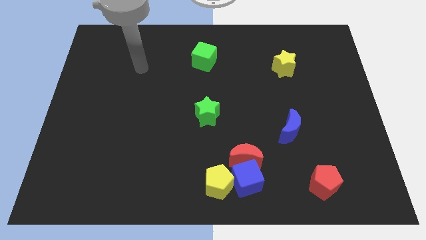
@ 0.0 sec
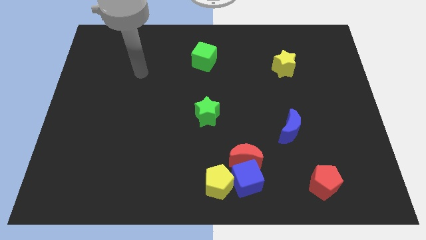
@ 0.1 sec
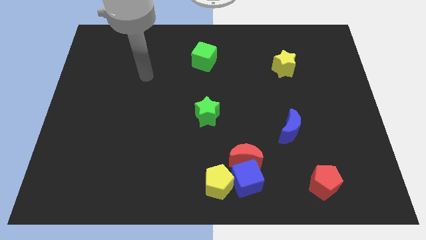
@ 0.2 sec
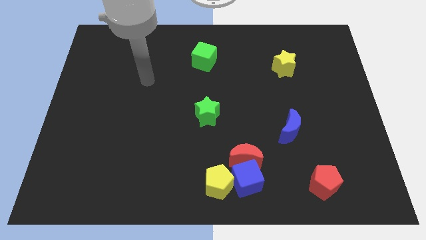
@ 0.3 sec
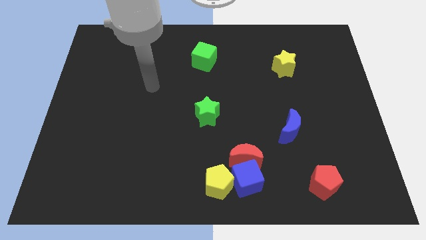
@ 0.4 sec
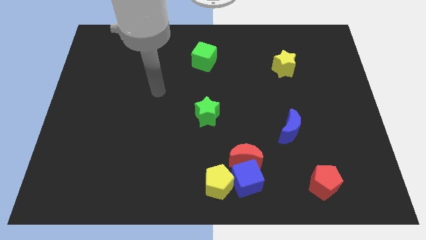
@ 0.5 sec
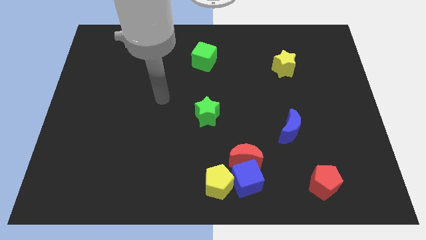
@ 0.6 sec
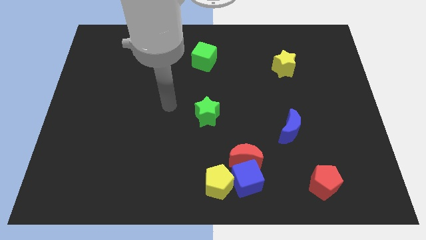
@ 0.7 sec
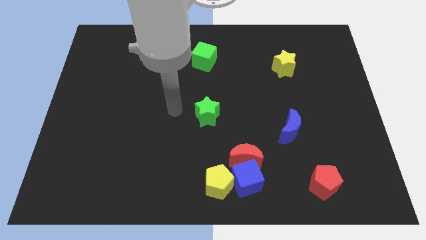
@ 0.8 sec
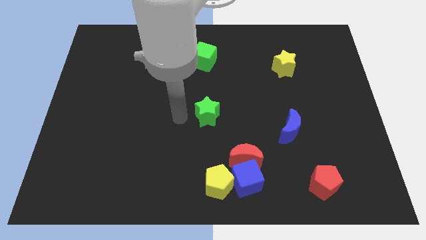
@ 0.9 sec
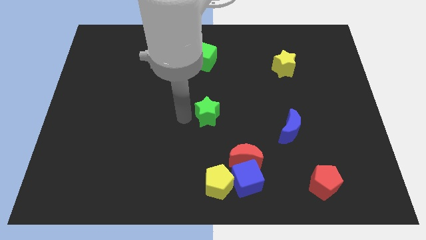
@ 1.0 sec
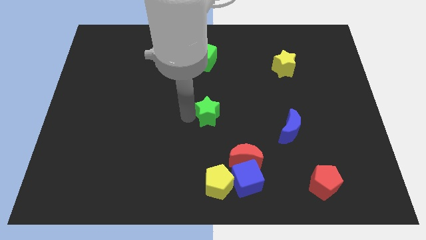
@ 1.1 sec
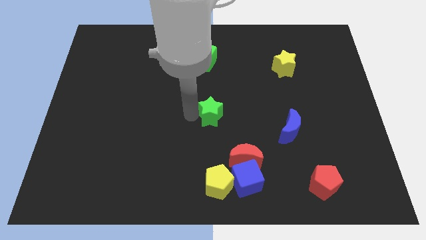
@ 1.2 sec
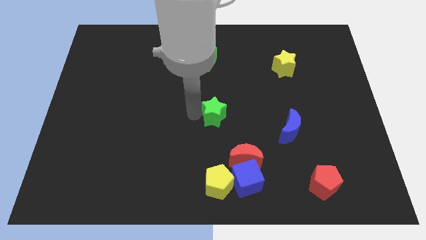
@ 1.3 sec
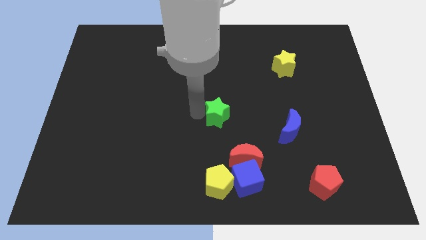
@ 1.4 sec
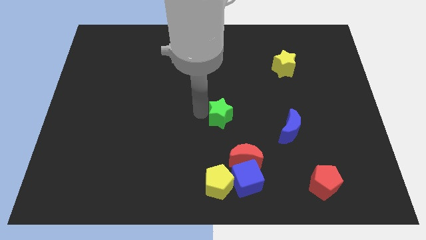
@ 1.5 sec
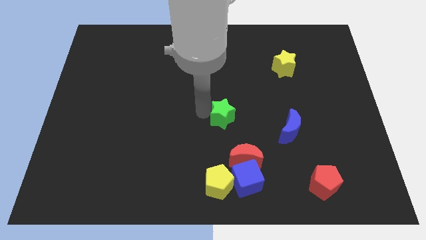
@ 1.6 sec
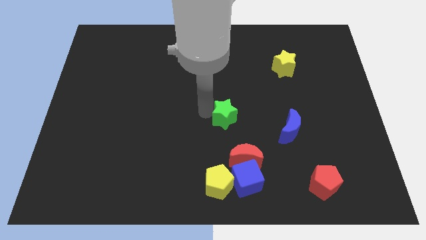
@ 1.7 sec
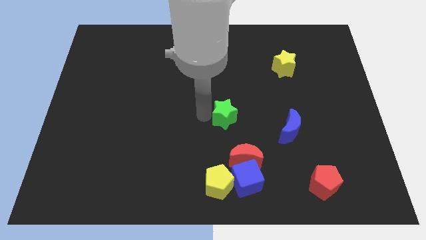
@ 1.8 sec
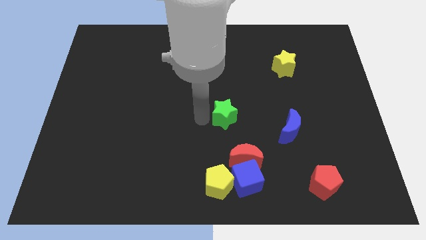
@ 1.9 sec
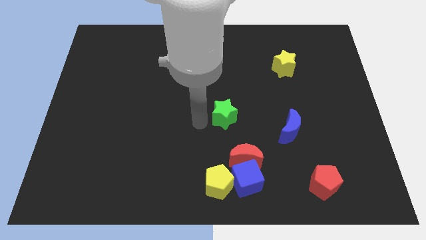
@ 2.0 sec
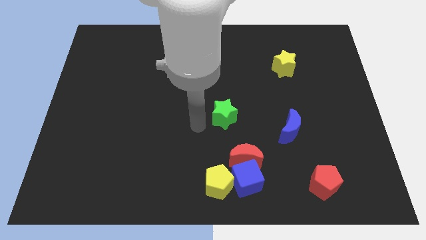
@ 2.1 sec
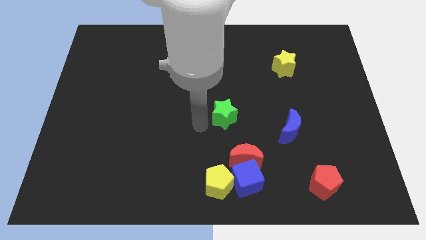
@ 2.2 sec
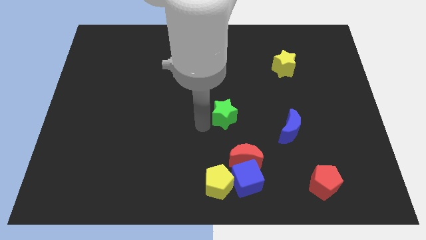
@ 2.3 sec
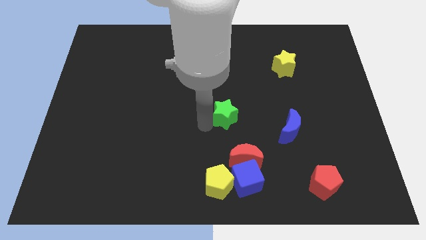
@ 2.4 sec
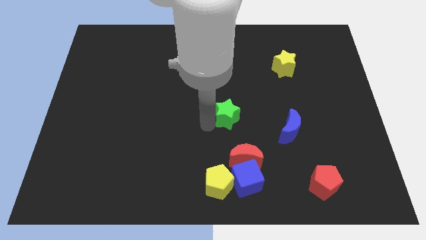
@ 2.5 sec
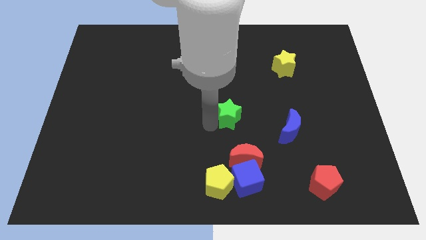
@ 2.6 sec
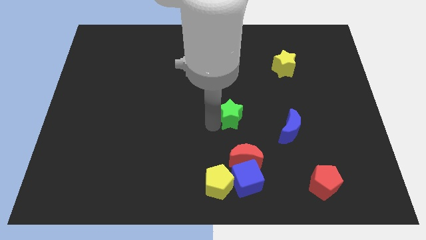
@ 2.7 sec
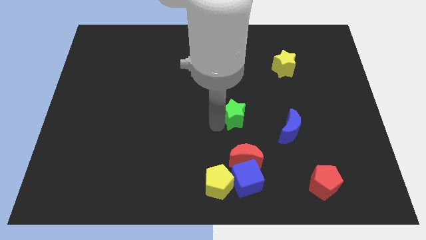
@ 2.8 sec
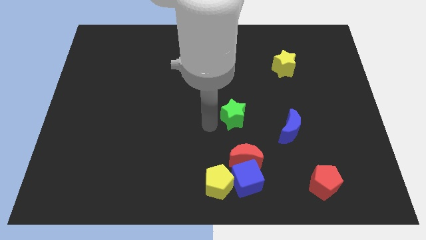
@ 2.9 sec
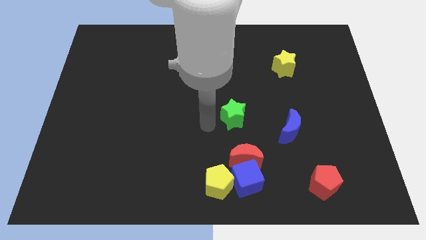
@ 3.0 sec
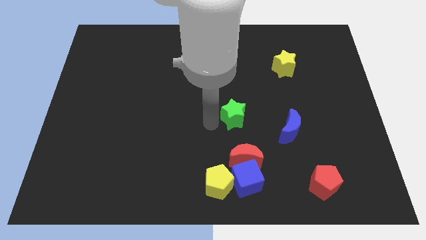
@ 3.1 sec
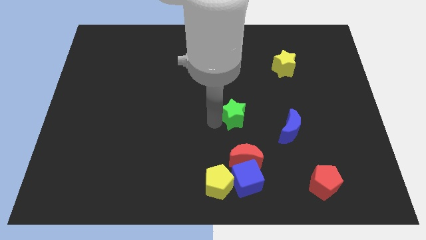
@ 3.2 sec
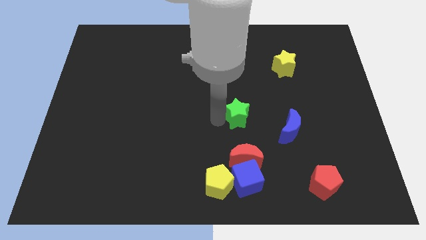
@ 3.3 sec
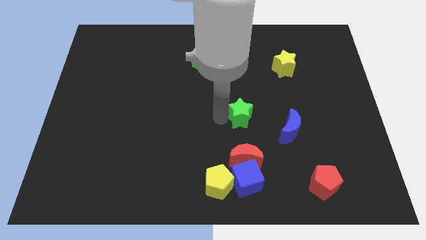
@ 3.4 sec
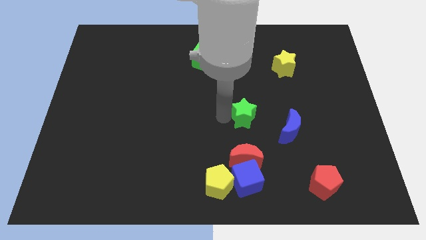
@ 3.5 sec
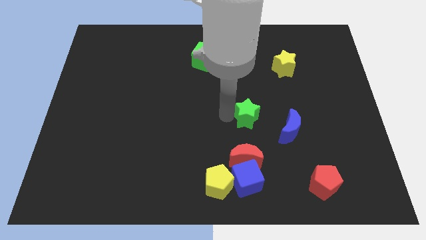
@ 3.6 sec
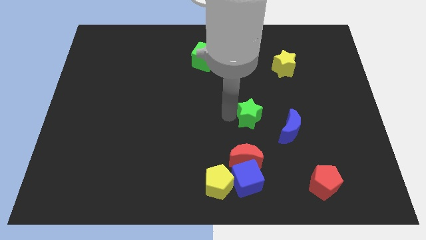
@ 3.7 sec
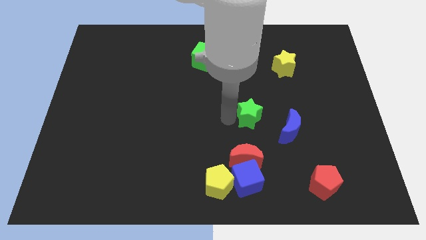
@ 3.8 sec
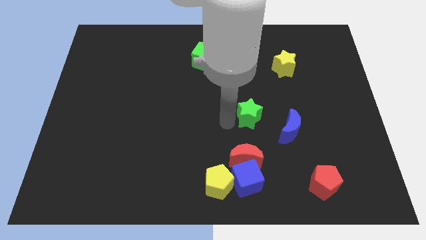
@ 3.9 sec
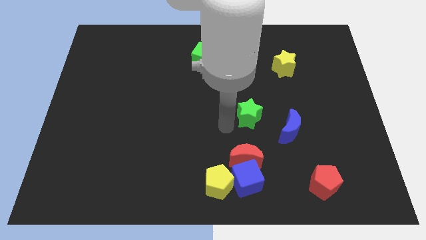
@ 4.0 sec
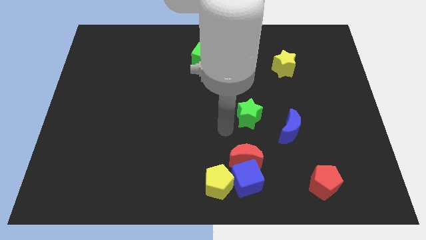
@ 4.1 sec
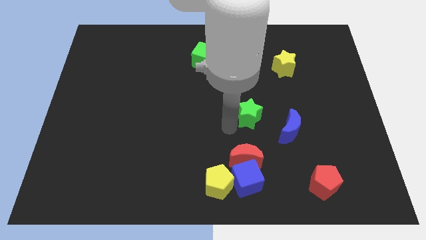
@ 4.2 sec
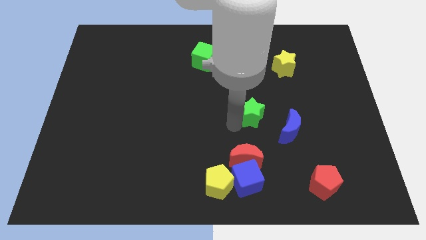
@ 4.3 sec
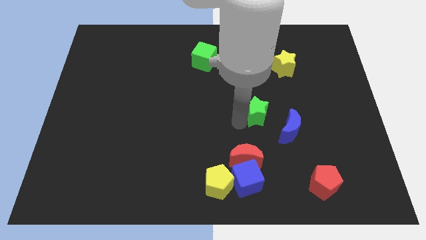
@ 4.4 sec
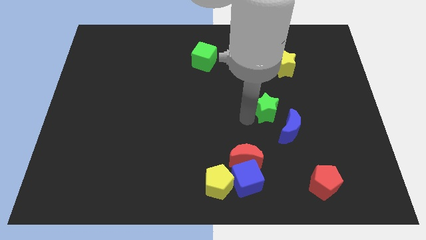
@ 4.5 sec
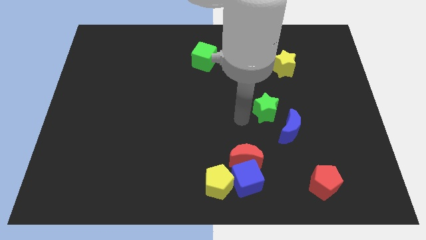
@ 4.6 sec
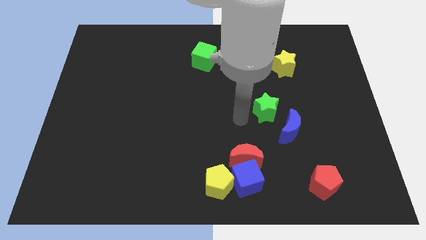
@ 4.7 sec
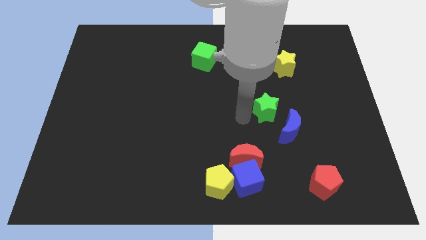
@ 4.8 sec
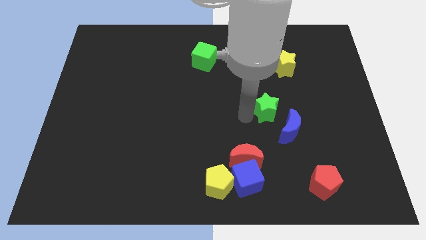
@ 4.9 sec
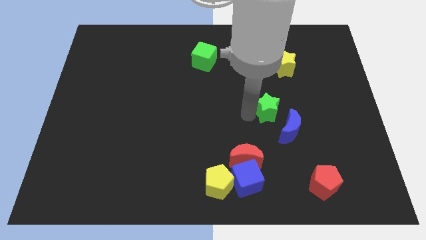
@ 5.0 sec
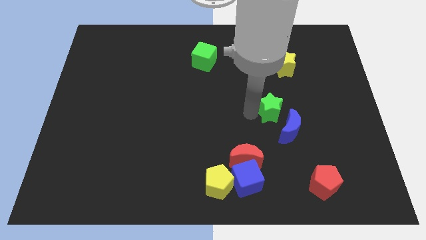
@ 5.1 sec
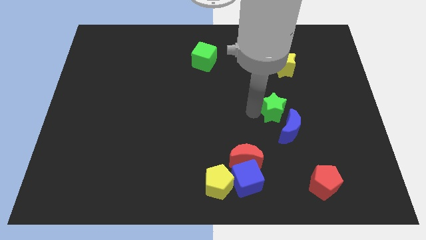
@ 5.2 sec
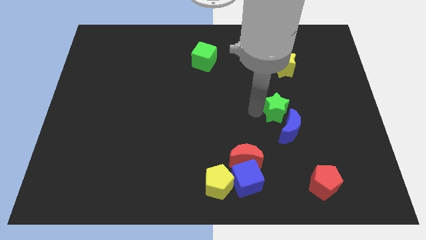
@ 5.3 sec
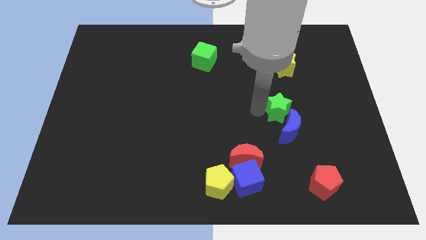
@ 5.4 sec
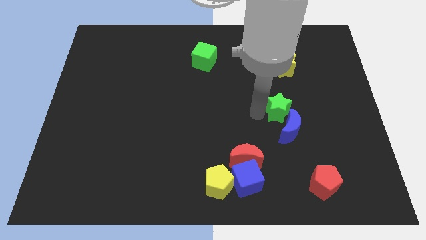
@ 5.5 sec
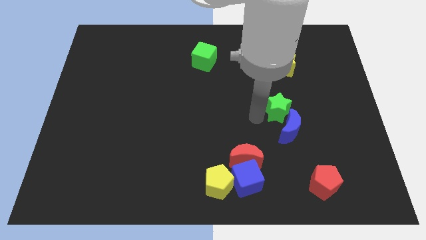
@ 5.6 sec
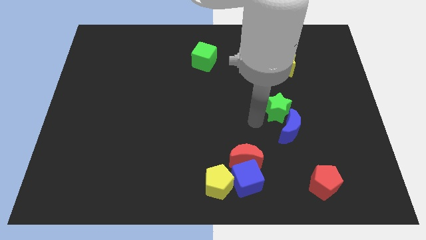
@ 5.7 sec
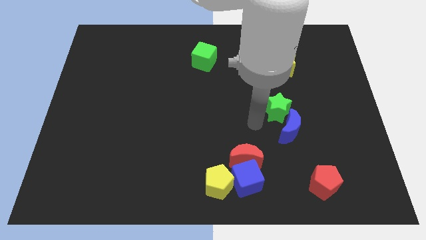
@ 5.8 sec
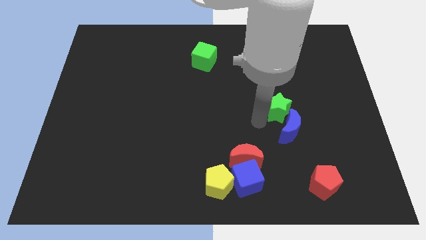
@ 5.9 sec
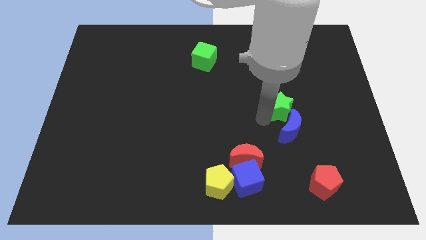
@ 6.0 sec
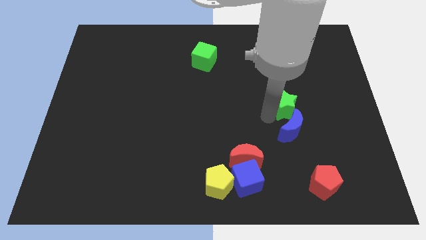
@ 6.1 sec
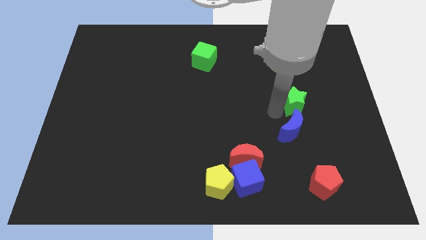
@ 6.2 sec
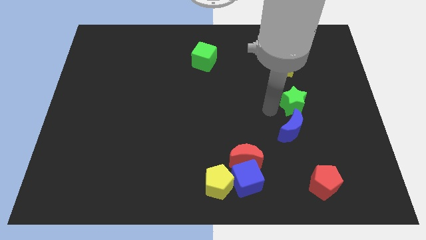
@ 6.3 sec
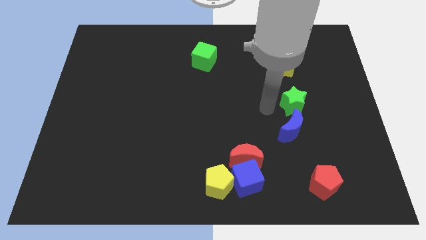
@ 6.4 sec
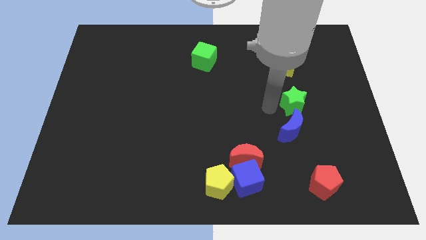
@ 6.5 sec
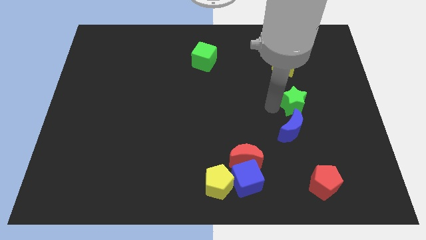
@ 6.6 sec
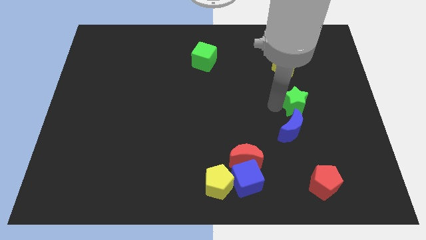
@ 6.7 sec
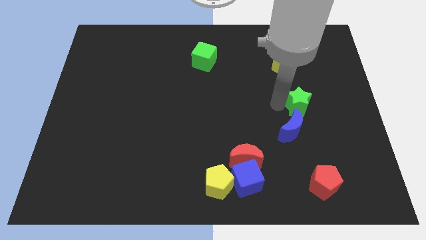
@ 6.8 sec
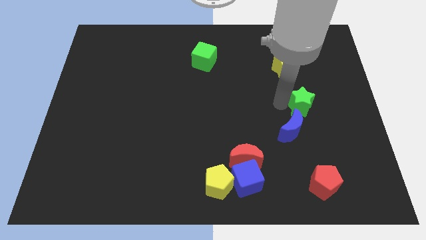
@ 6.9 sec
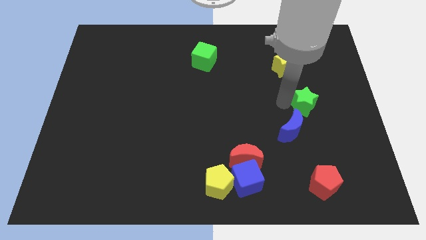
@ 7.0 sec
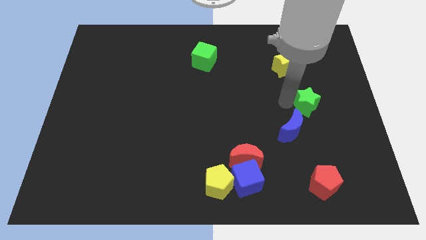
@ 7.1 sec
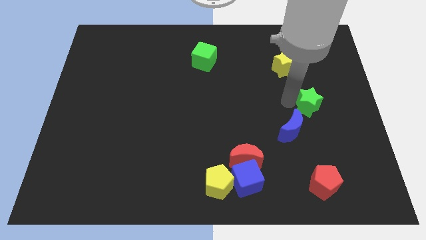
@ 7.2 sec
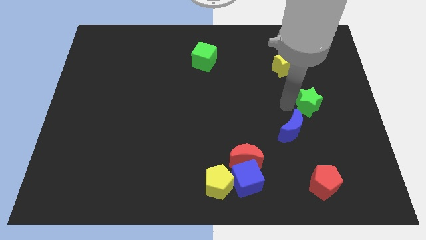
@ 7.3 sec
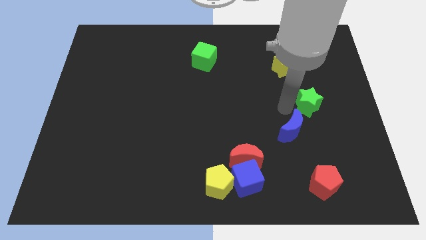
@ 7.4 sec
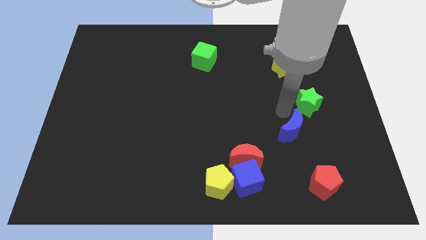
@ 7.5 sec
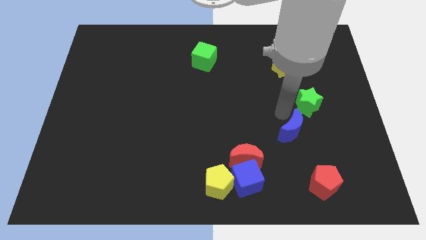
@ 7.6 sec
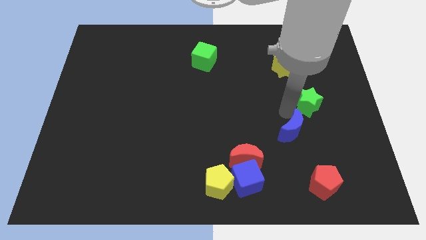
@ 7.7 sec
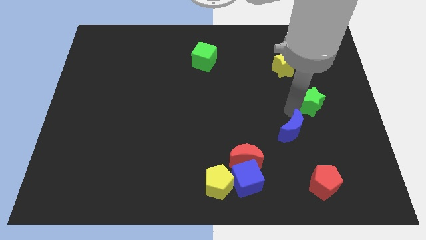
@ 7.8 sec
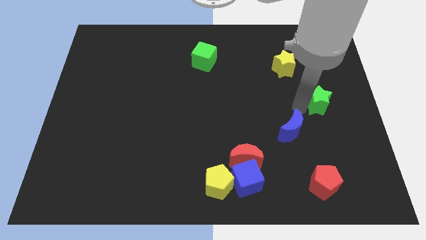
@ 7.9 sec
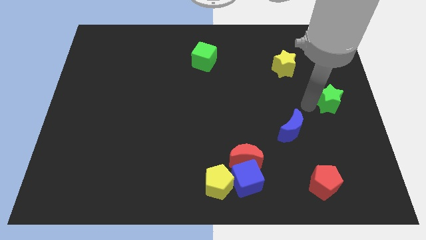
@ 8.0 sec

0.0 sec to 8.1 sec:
put the green star to the center right
